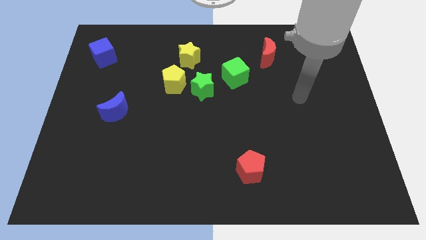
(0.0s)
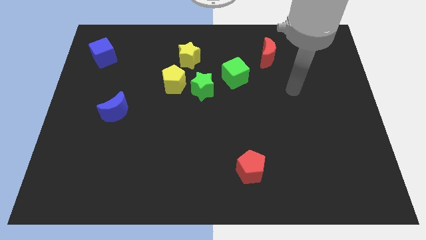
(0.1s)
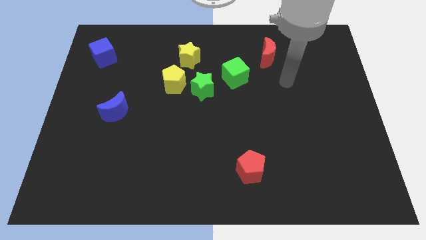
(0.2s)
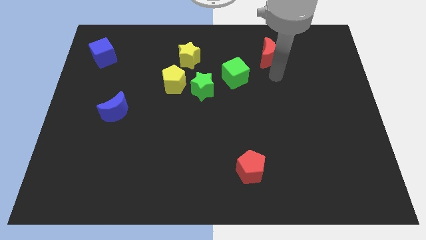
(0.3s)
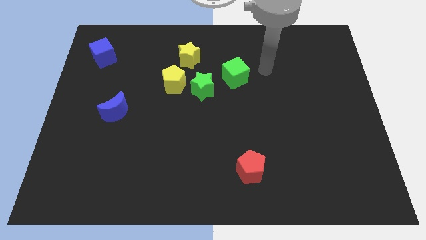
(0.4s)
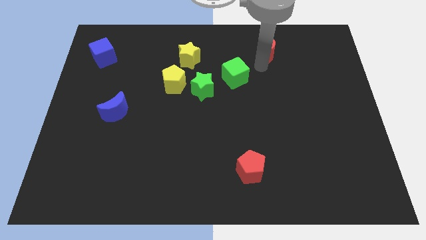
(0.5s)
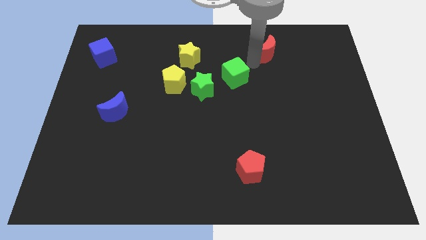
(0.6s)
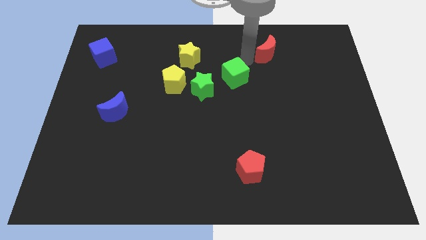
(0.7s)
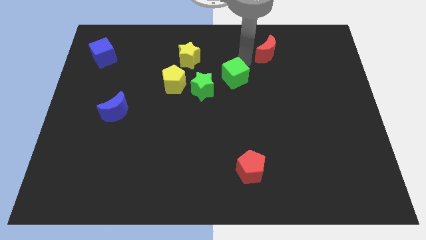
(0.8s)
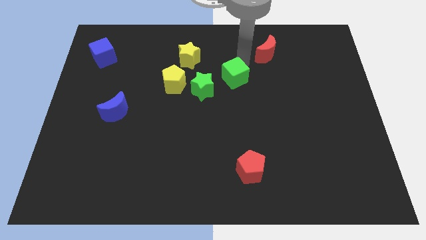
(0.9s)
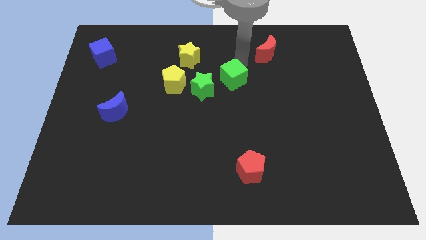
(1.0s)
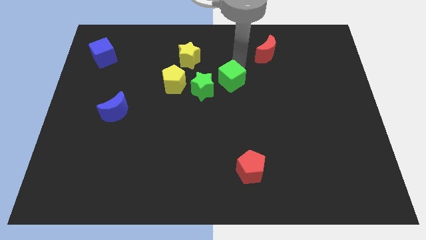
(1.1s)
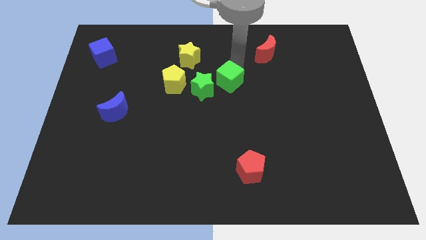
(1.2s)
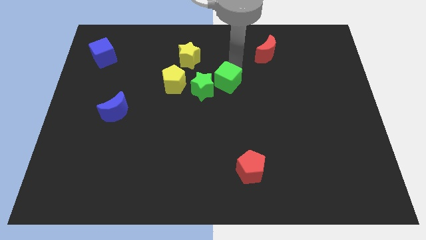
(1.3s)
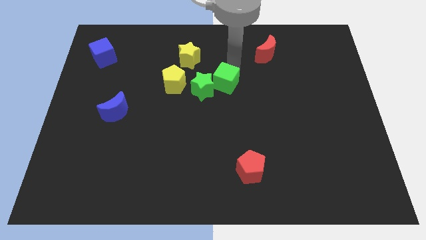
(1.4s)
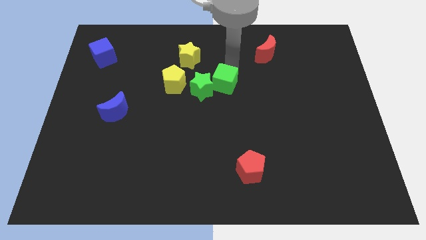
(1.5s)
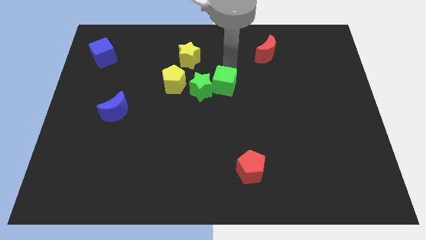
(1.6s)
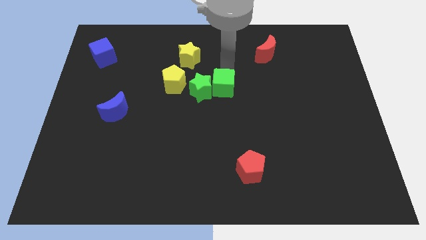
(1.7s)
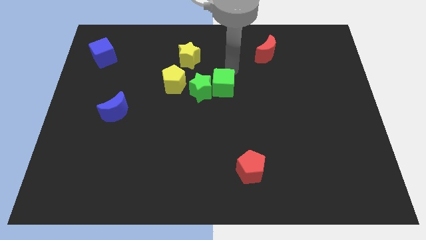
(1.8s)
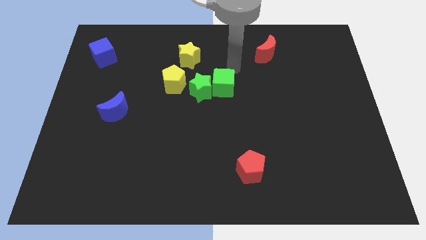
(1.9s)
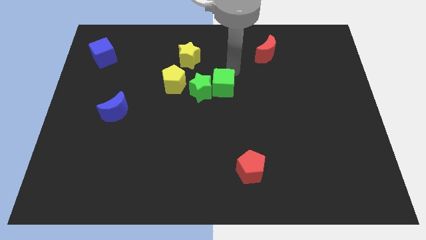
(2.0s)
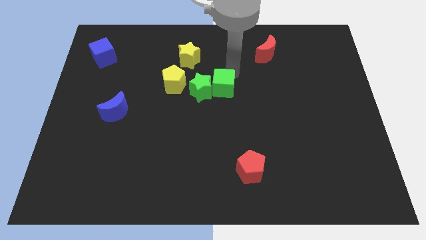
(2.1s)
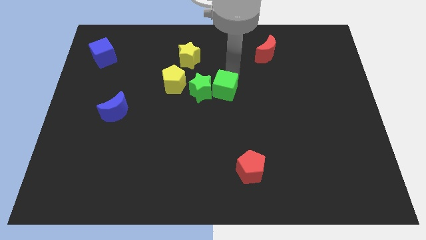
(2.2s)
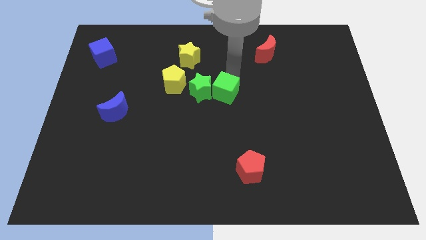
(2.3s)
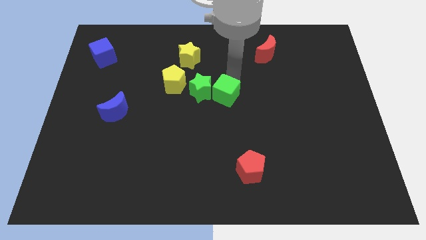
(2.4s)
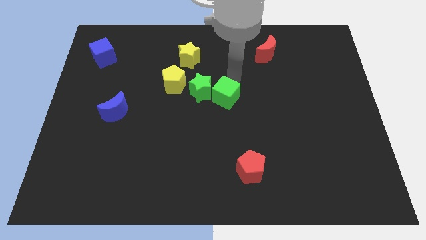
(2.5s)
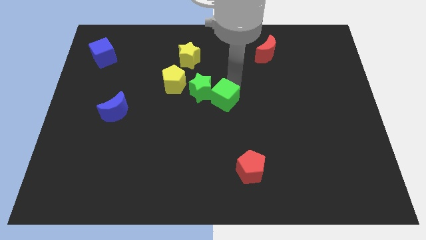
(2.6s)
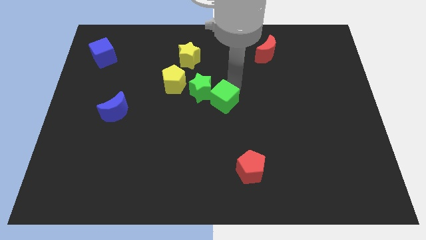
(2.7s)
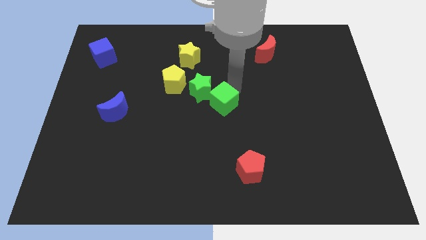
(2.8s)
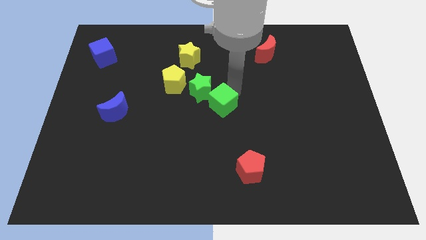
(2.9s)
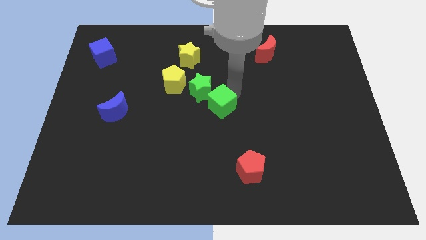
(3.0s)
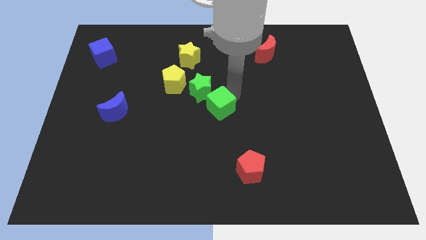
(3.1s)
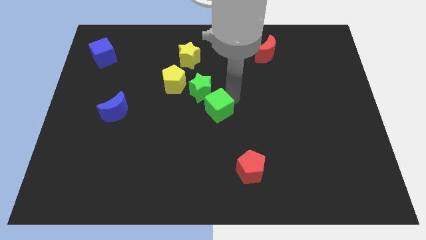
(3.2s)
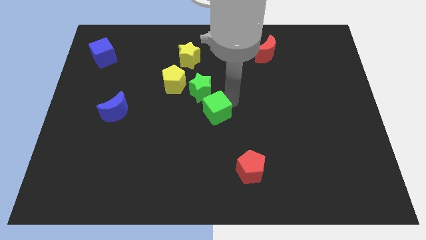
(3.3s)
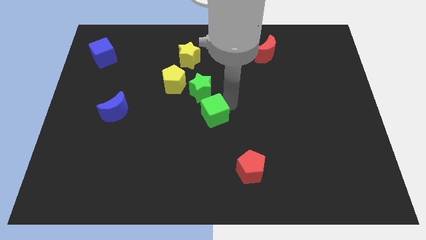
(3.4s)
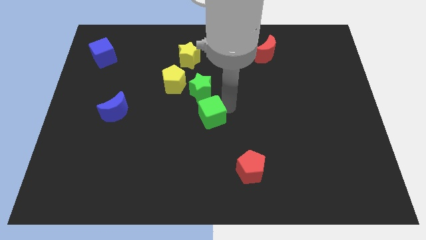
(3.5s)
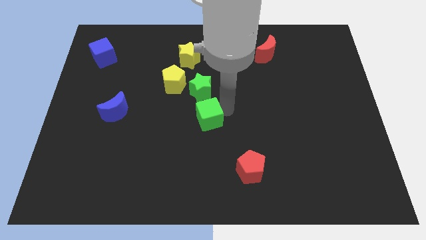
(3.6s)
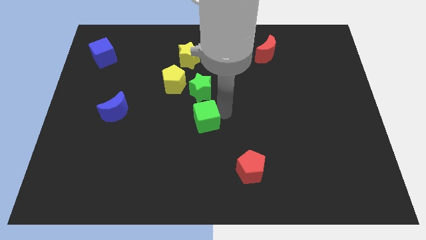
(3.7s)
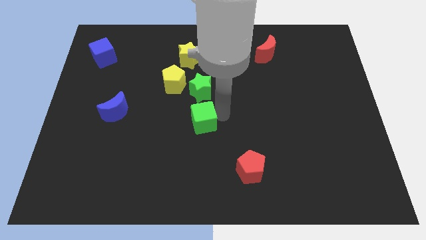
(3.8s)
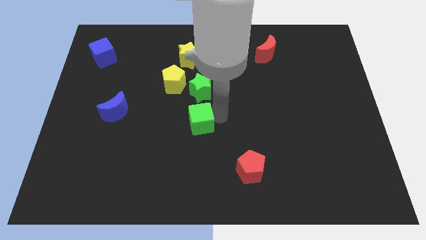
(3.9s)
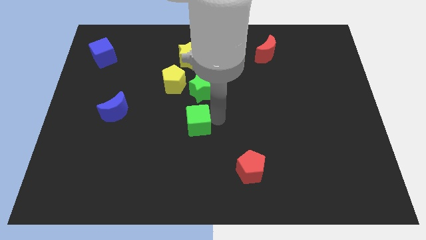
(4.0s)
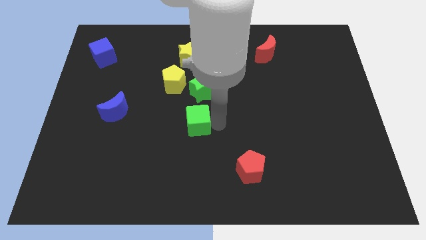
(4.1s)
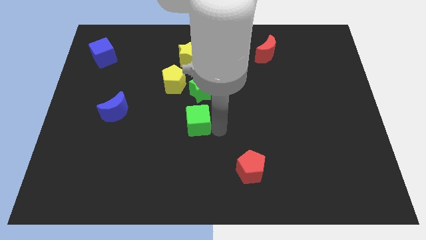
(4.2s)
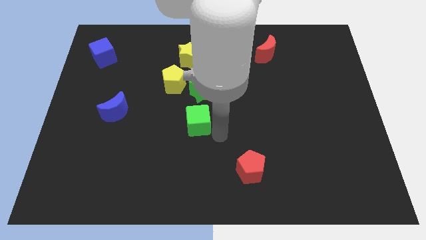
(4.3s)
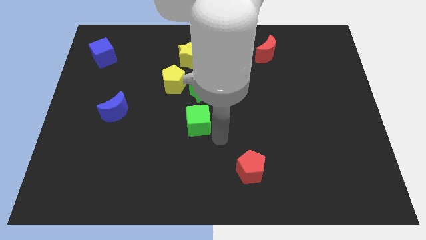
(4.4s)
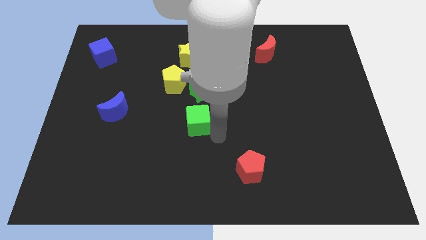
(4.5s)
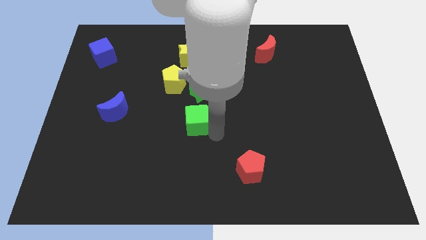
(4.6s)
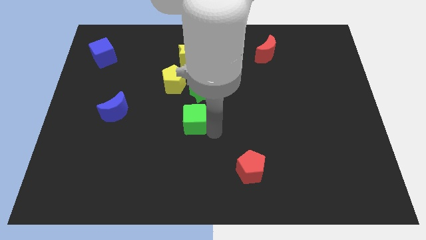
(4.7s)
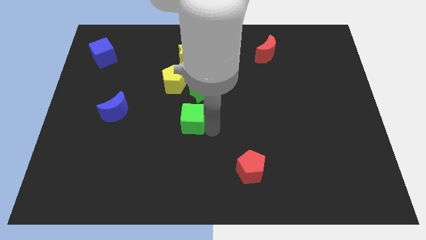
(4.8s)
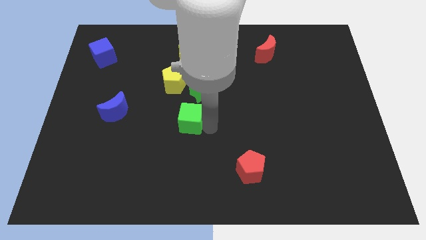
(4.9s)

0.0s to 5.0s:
slide the green cube diagonally down and to the left of the green star

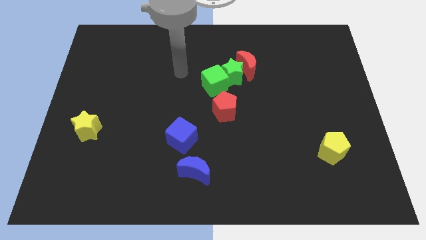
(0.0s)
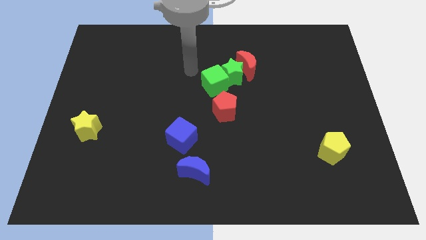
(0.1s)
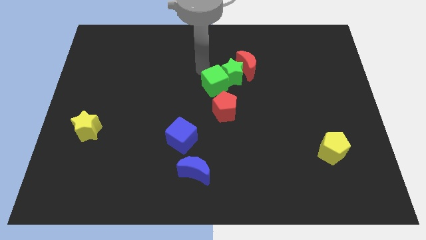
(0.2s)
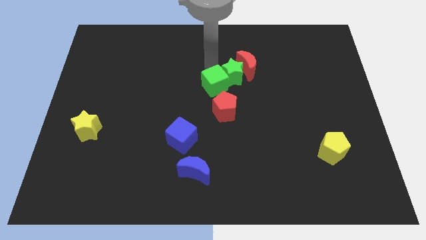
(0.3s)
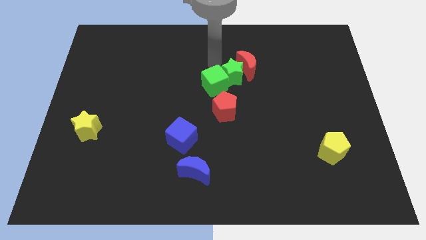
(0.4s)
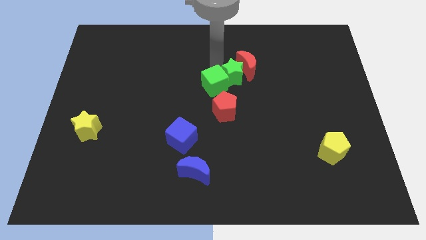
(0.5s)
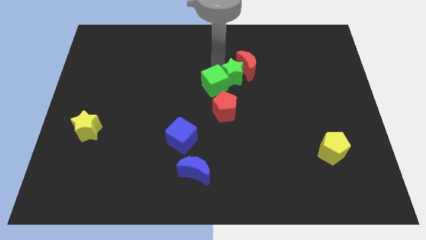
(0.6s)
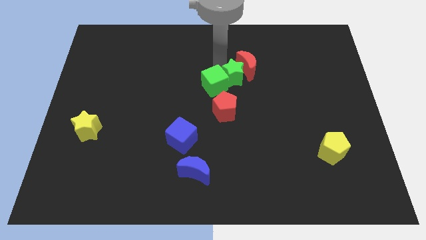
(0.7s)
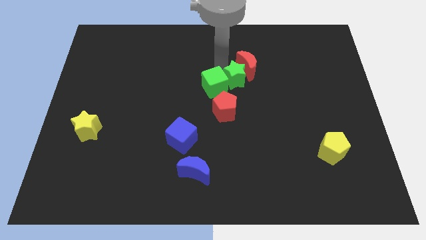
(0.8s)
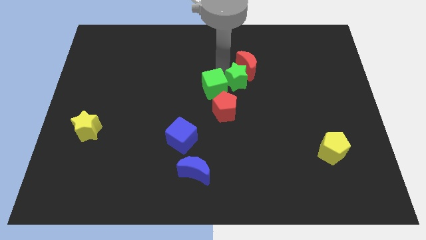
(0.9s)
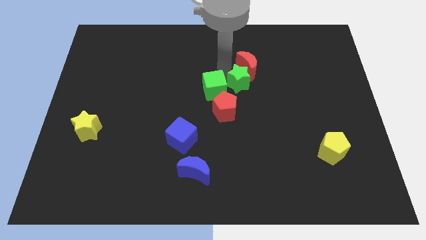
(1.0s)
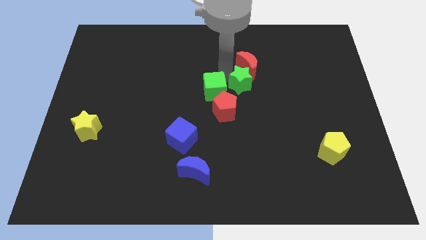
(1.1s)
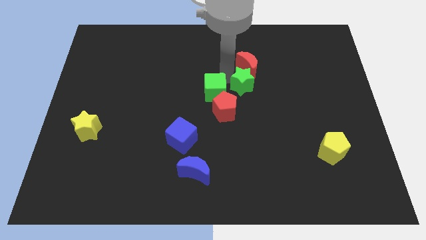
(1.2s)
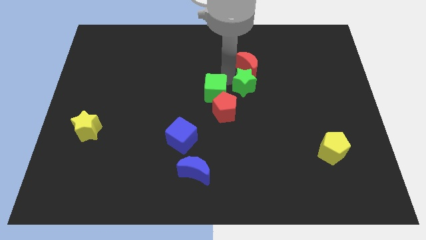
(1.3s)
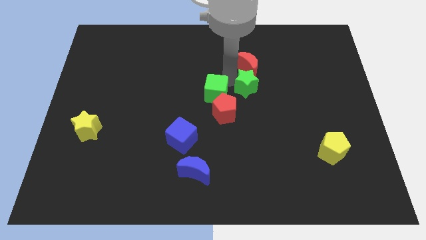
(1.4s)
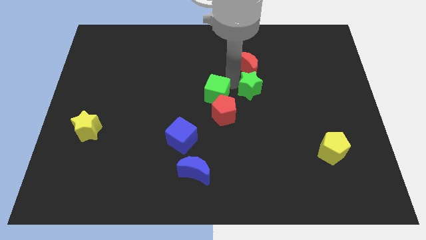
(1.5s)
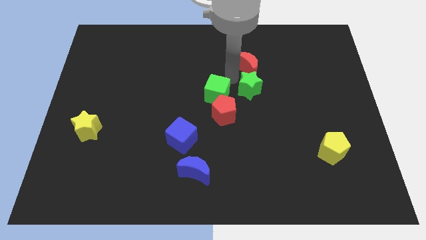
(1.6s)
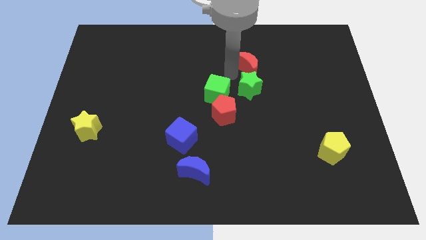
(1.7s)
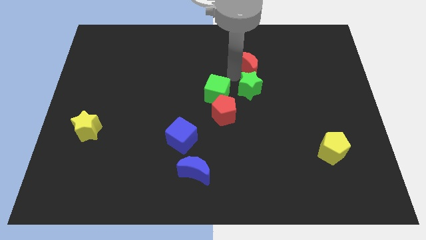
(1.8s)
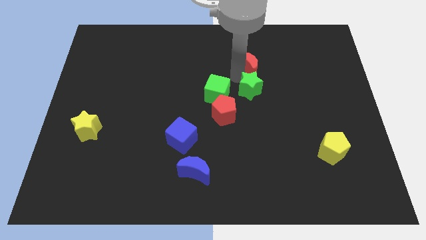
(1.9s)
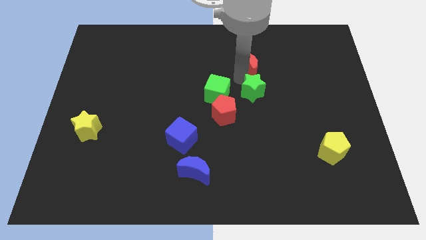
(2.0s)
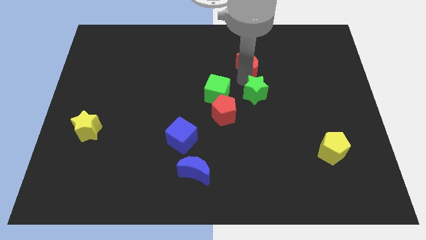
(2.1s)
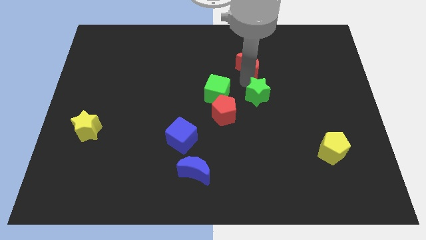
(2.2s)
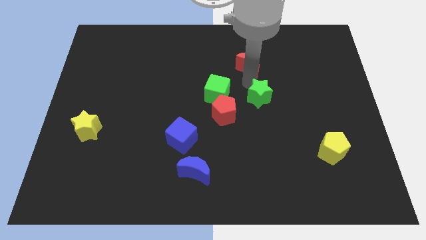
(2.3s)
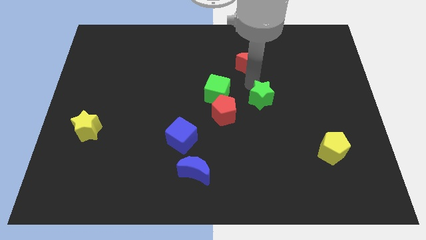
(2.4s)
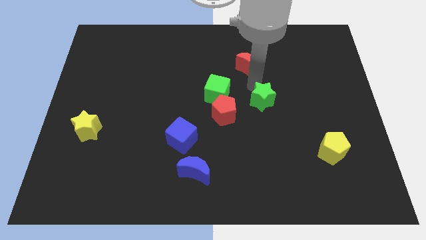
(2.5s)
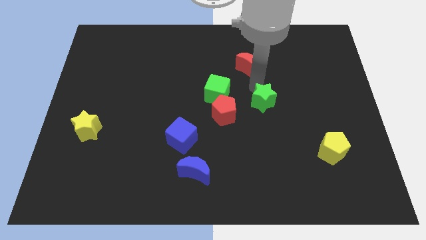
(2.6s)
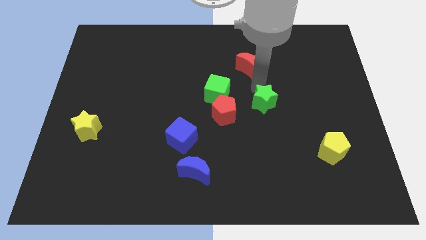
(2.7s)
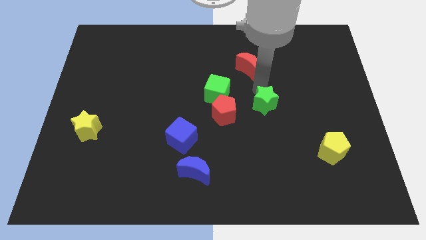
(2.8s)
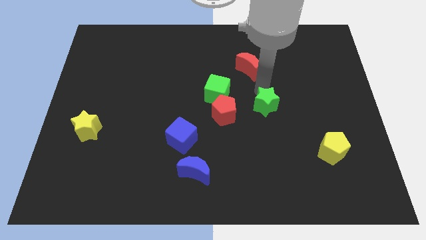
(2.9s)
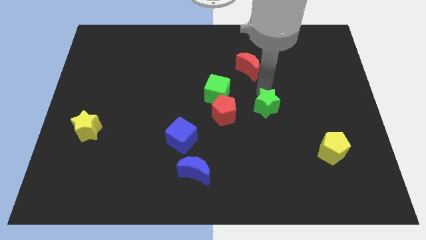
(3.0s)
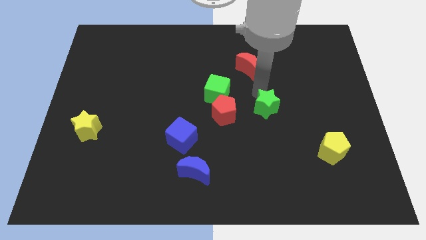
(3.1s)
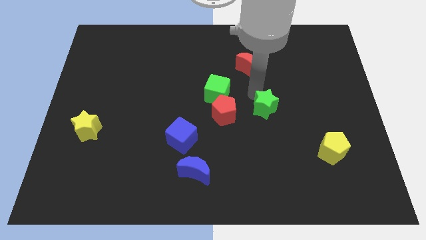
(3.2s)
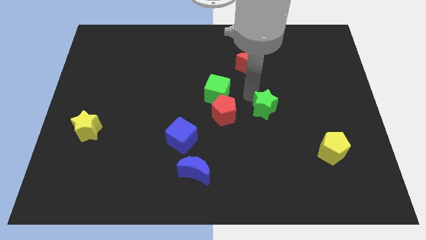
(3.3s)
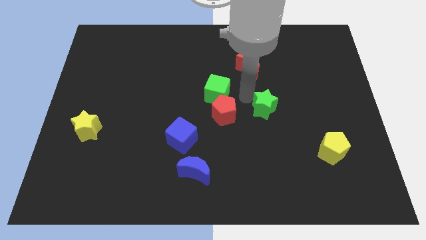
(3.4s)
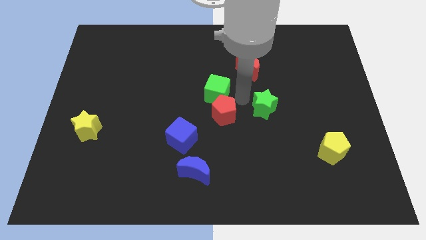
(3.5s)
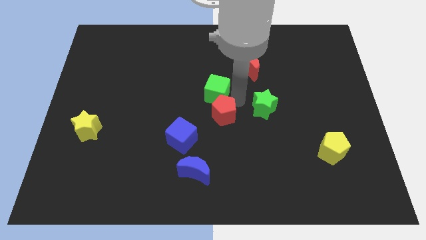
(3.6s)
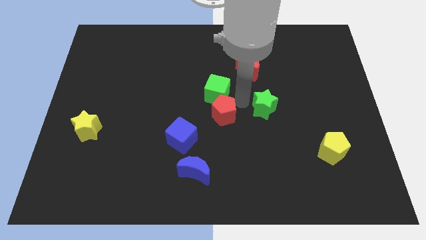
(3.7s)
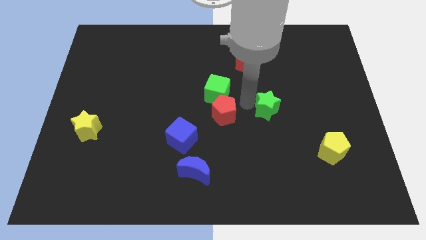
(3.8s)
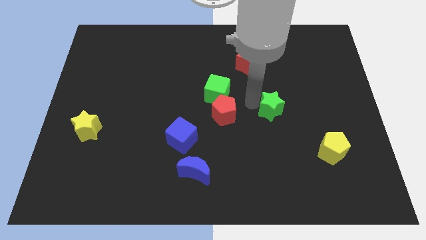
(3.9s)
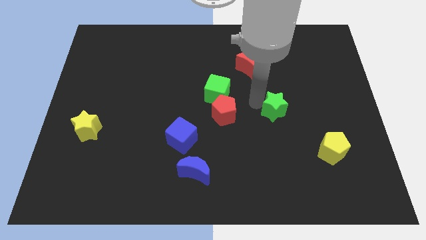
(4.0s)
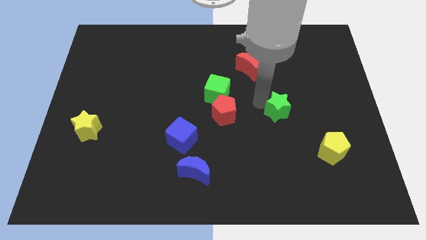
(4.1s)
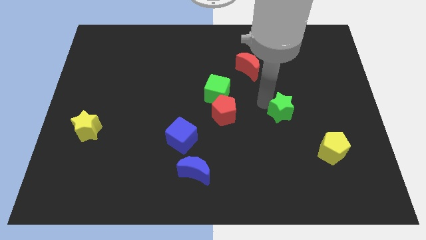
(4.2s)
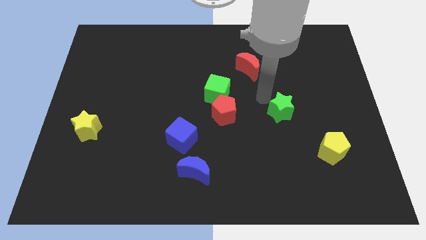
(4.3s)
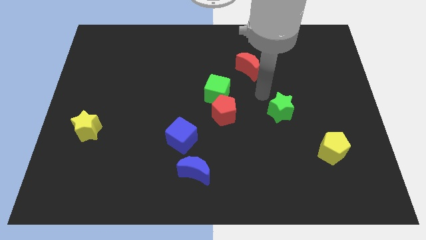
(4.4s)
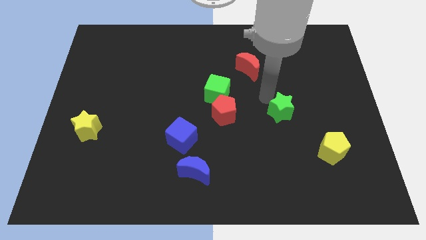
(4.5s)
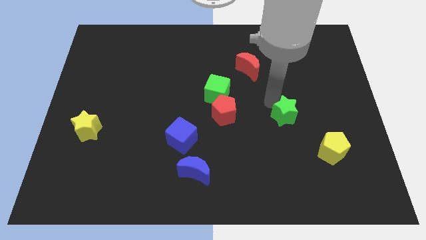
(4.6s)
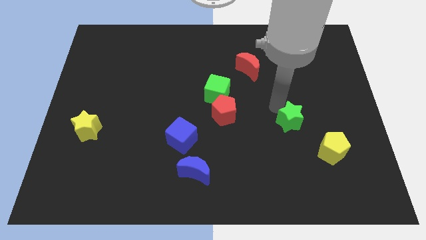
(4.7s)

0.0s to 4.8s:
put the green star diagonally up and to the left of the yellow pentagon
